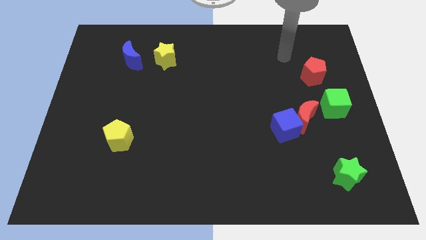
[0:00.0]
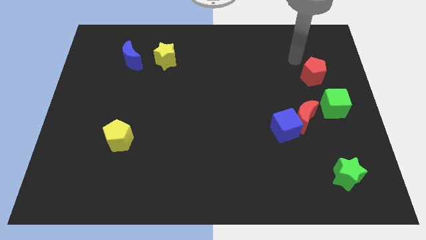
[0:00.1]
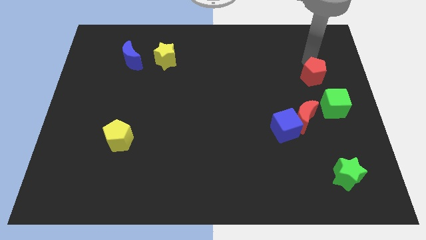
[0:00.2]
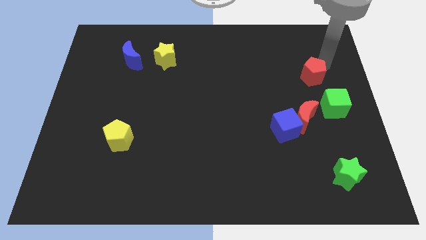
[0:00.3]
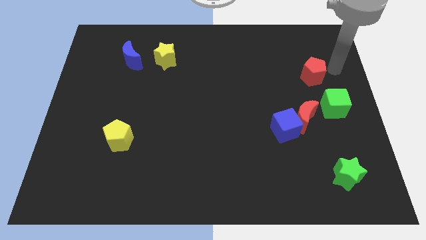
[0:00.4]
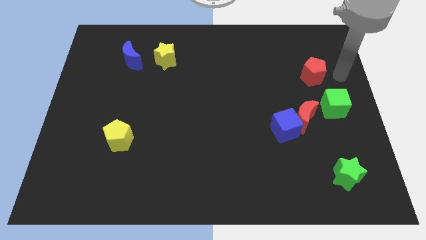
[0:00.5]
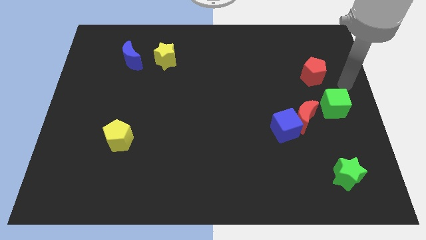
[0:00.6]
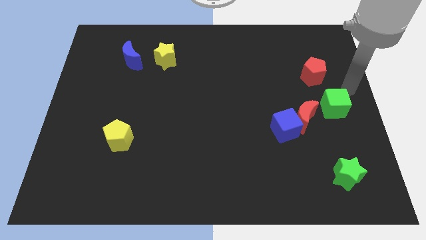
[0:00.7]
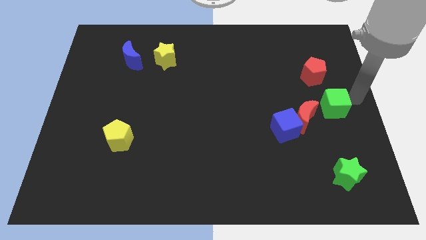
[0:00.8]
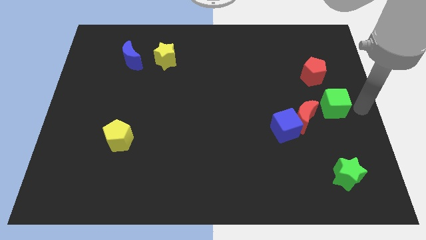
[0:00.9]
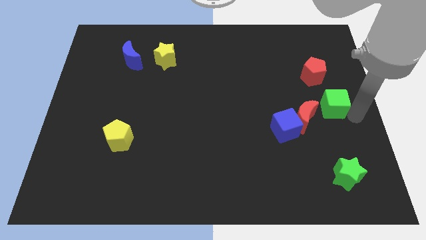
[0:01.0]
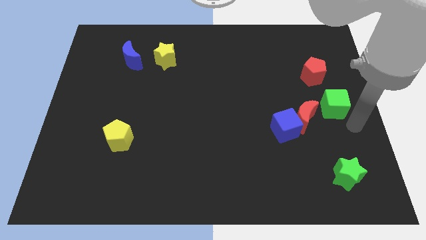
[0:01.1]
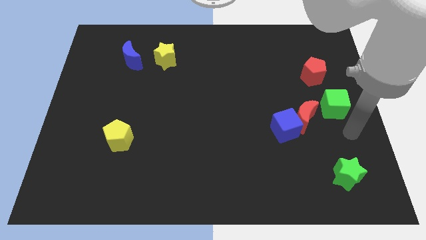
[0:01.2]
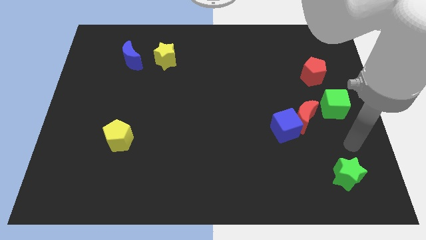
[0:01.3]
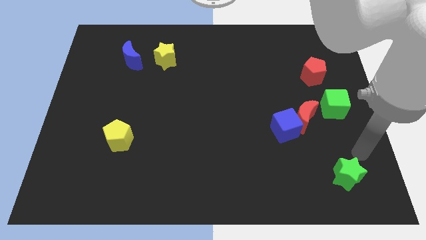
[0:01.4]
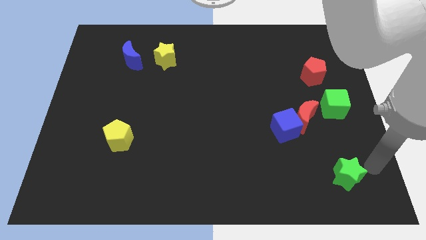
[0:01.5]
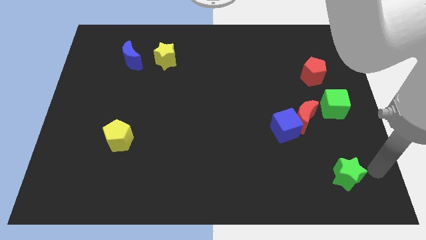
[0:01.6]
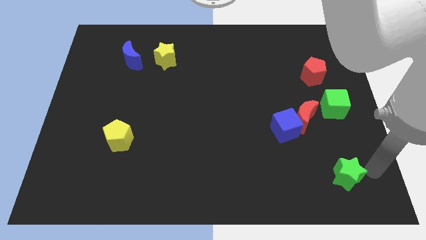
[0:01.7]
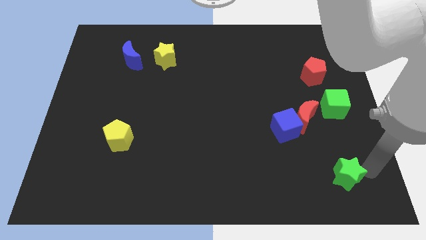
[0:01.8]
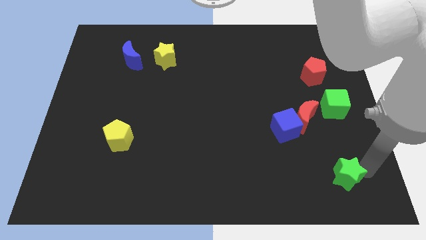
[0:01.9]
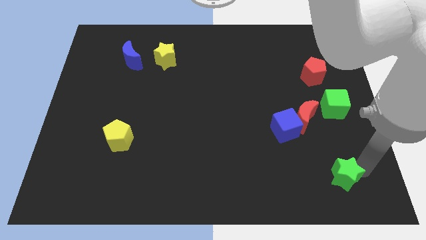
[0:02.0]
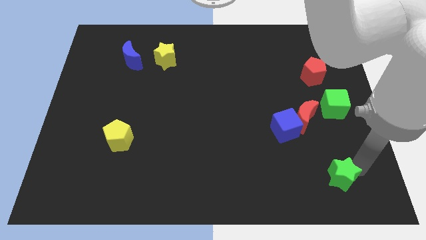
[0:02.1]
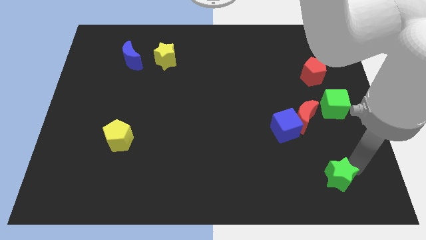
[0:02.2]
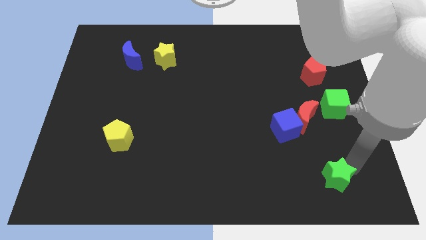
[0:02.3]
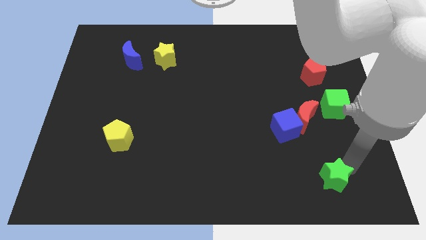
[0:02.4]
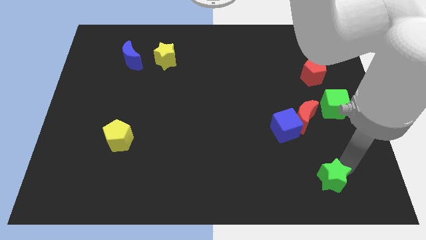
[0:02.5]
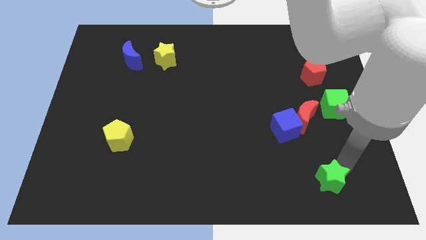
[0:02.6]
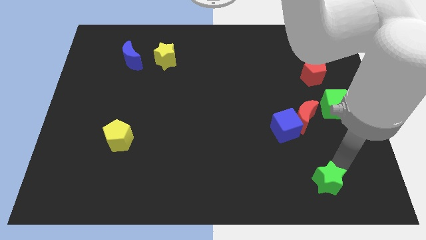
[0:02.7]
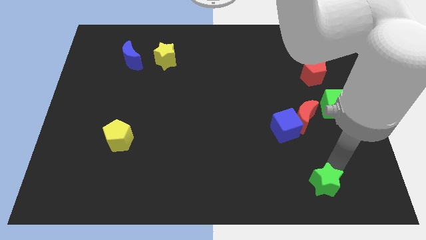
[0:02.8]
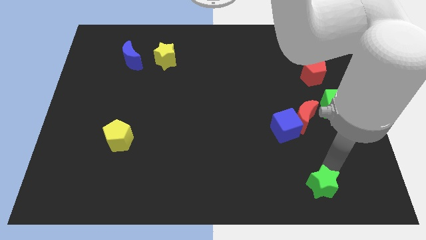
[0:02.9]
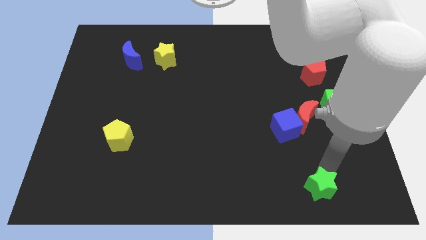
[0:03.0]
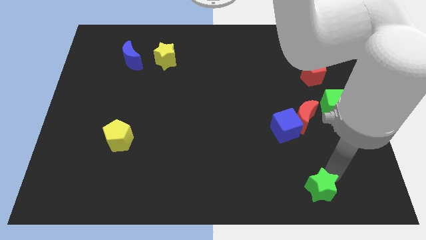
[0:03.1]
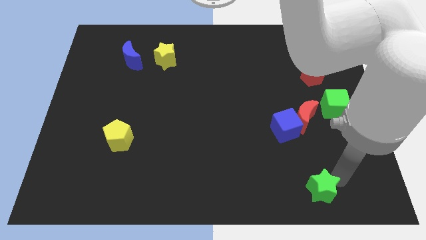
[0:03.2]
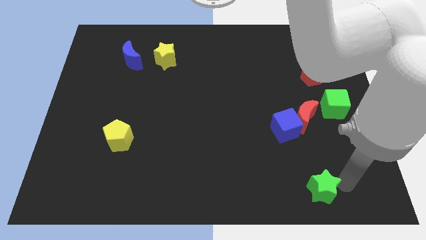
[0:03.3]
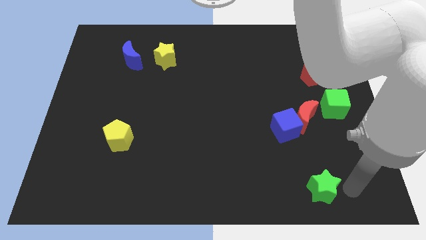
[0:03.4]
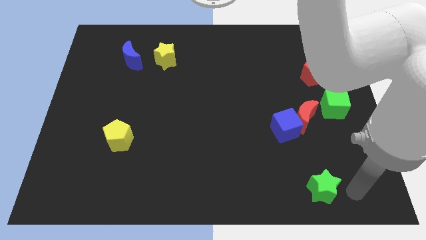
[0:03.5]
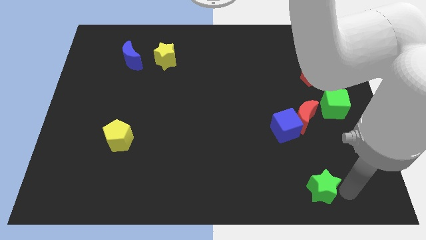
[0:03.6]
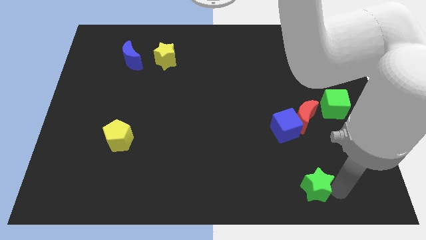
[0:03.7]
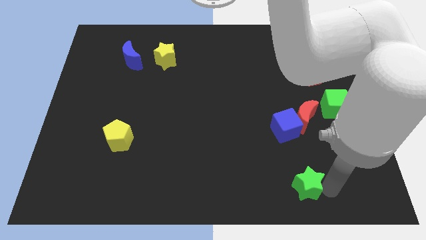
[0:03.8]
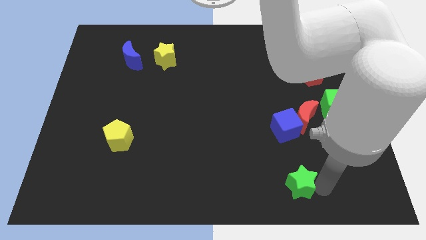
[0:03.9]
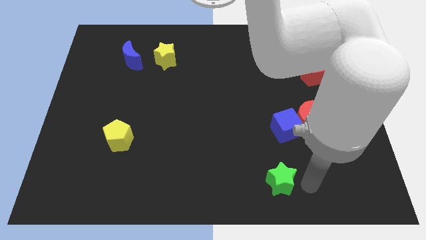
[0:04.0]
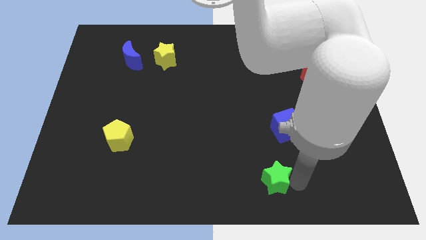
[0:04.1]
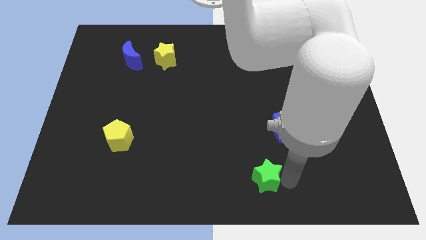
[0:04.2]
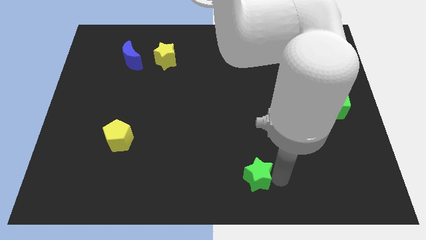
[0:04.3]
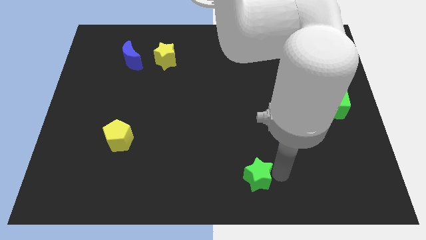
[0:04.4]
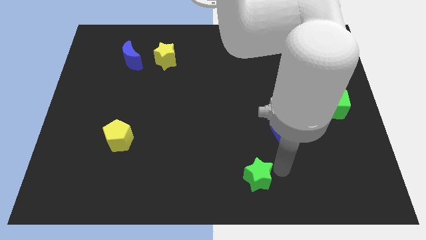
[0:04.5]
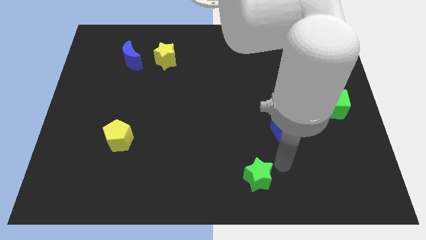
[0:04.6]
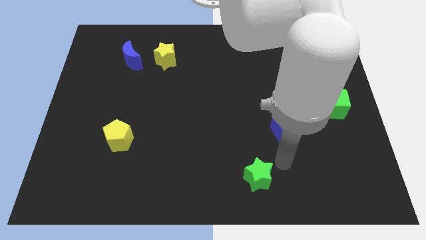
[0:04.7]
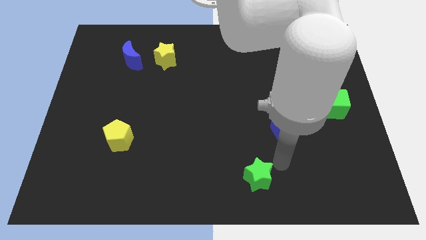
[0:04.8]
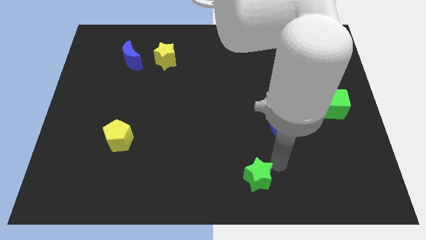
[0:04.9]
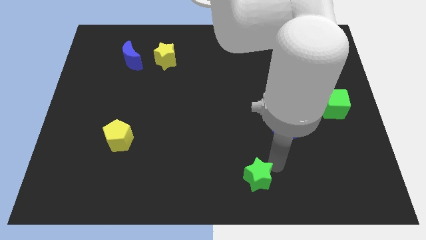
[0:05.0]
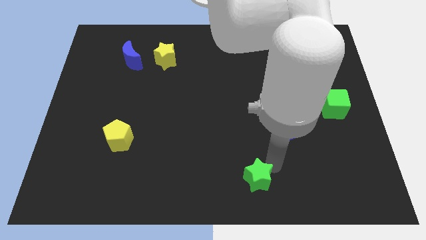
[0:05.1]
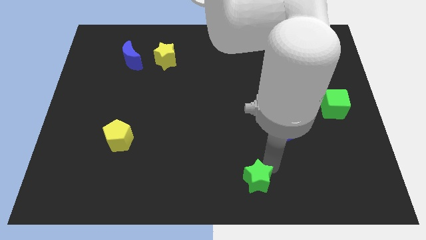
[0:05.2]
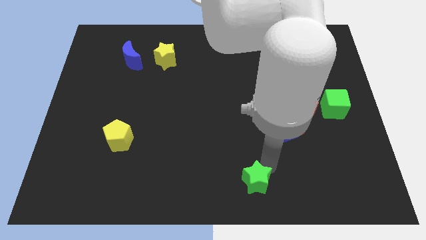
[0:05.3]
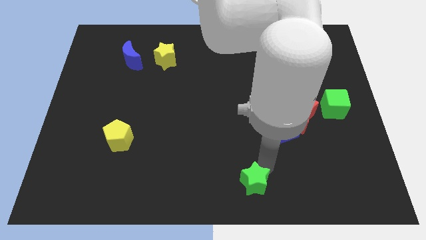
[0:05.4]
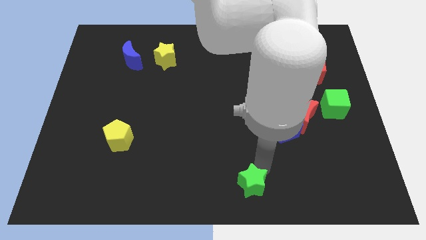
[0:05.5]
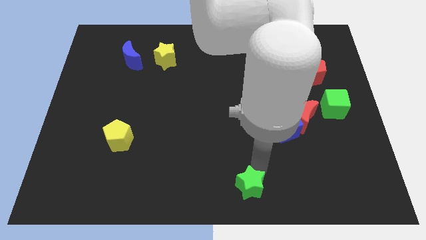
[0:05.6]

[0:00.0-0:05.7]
move the green star to the left

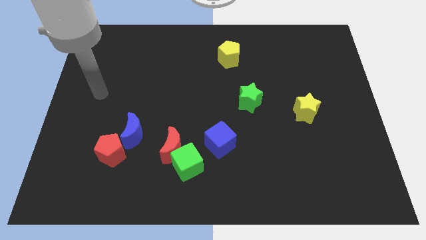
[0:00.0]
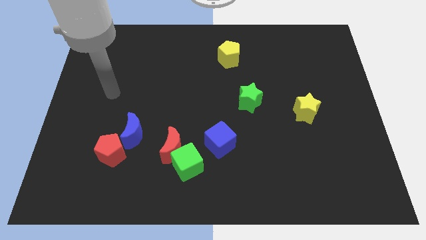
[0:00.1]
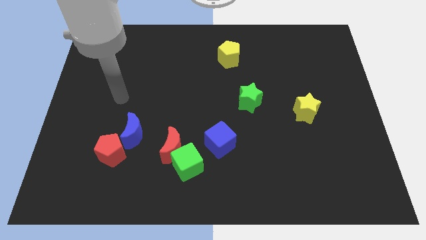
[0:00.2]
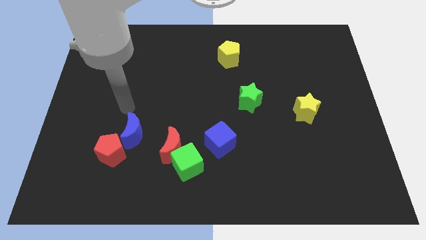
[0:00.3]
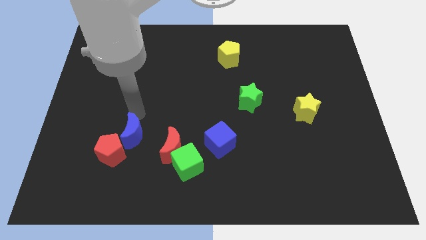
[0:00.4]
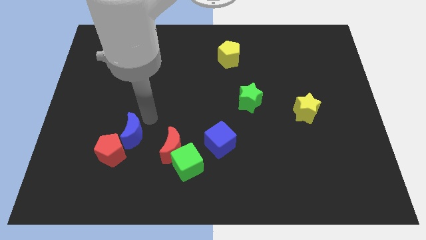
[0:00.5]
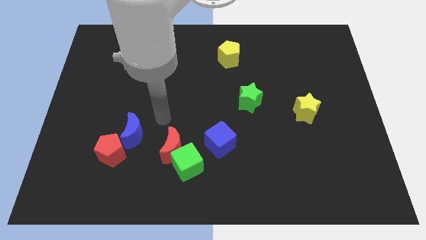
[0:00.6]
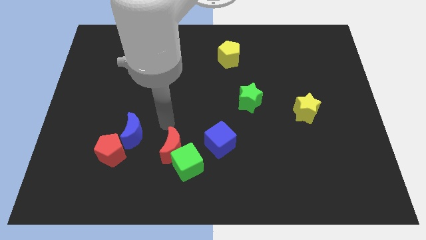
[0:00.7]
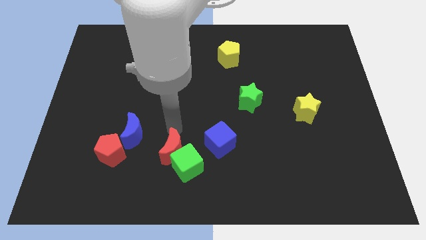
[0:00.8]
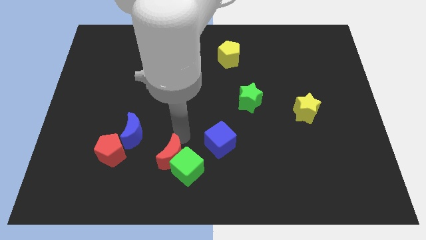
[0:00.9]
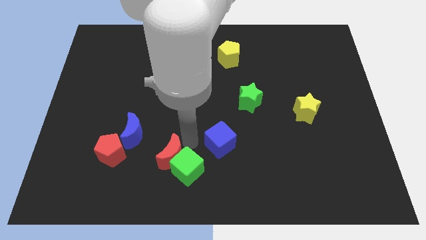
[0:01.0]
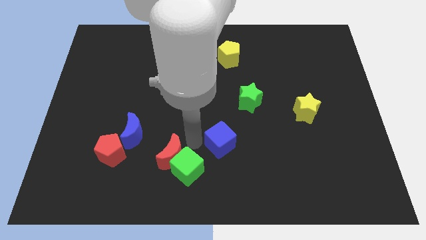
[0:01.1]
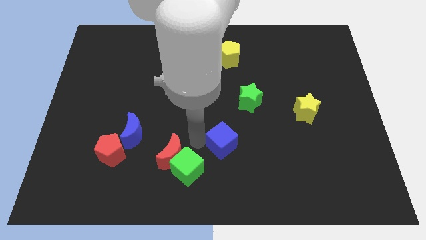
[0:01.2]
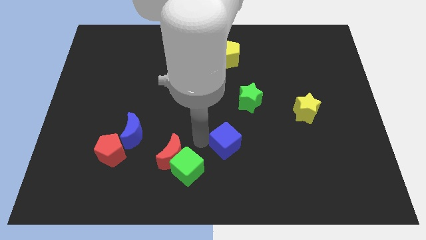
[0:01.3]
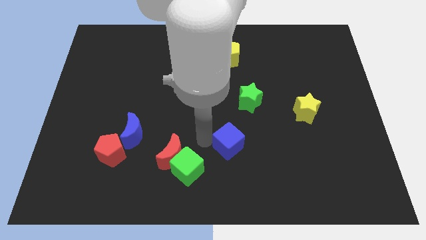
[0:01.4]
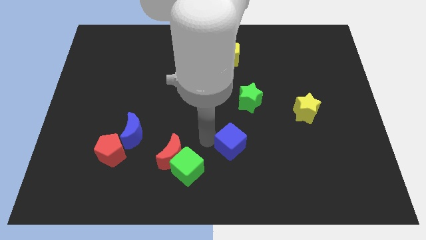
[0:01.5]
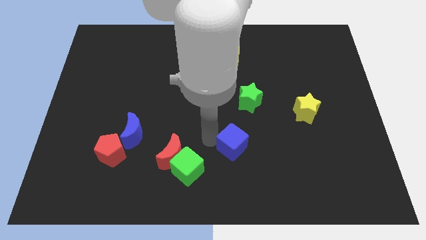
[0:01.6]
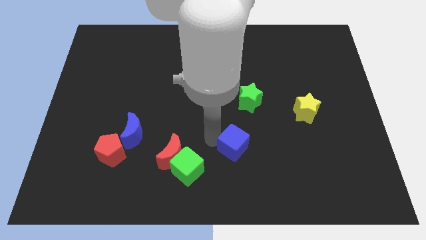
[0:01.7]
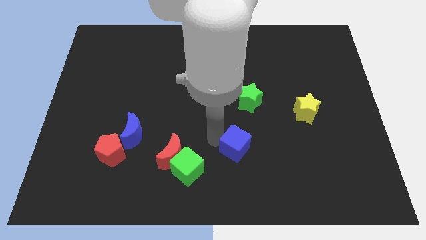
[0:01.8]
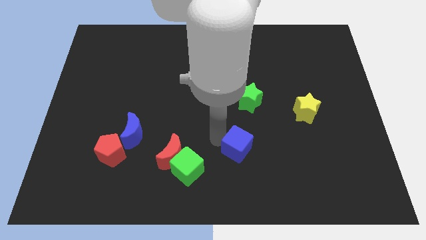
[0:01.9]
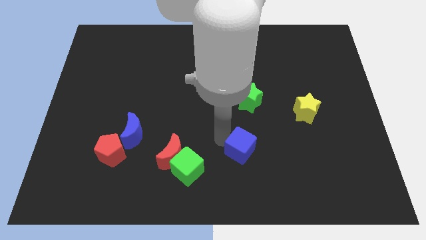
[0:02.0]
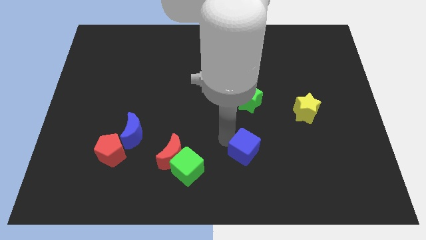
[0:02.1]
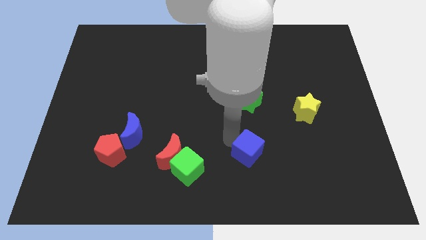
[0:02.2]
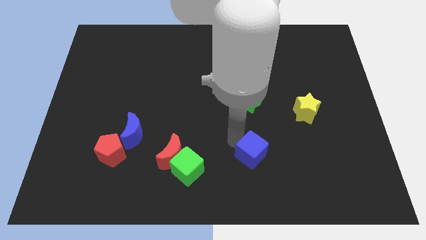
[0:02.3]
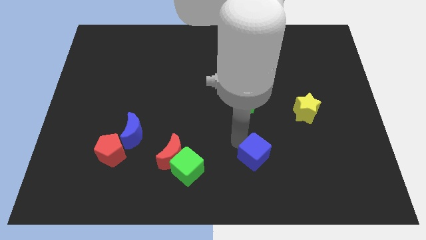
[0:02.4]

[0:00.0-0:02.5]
push the blue cube somewhat to the right
